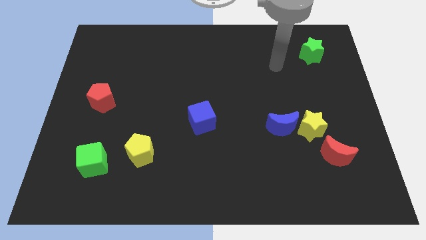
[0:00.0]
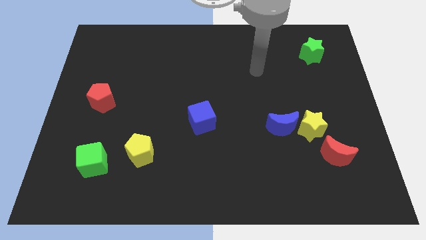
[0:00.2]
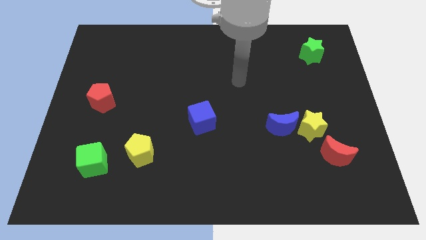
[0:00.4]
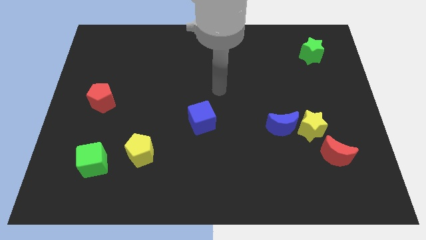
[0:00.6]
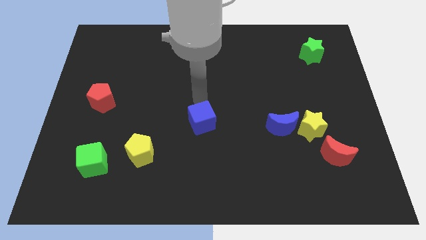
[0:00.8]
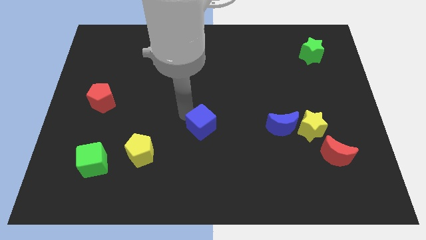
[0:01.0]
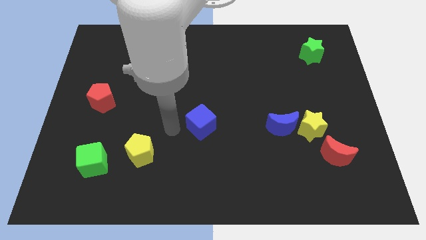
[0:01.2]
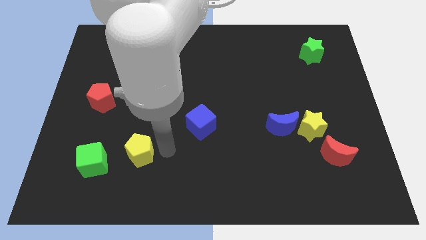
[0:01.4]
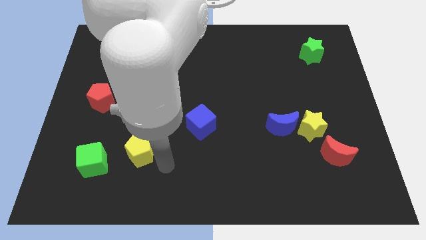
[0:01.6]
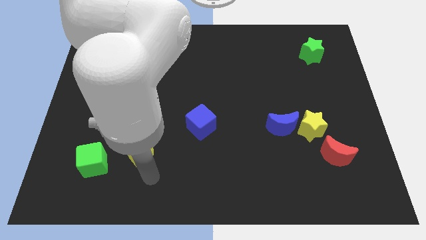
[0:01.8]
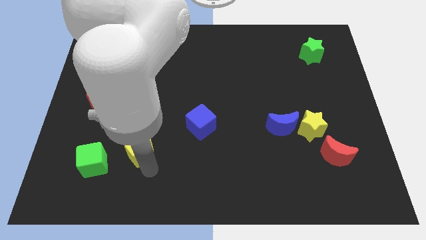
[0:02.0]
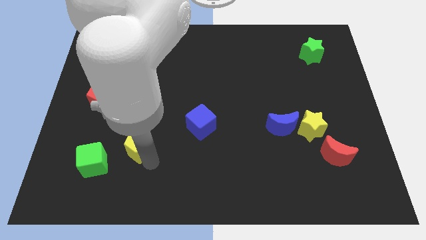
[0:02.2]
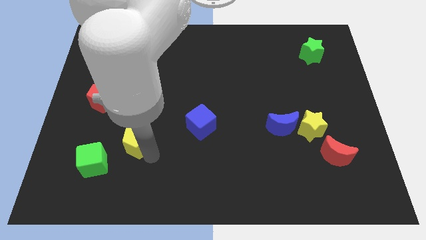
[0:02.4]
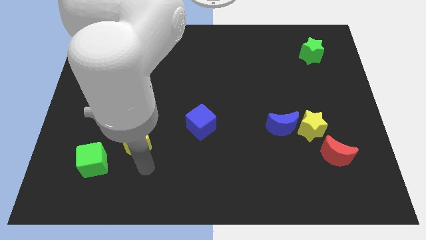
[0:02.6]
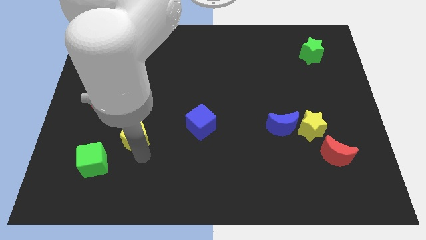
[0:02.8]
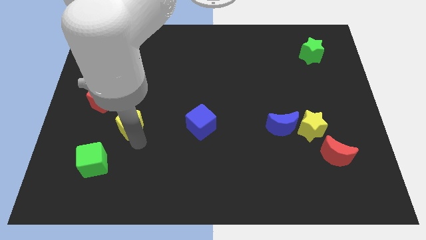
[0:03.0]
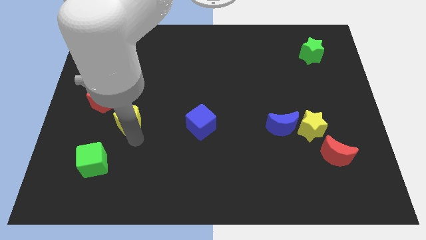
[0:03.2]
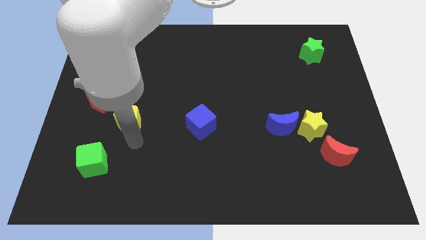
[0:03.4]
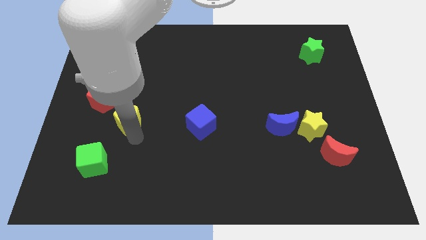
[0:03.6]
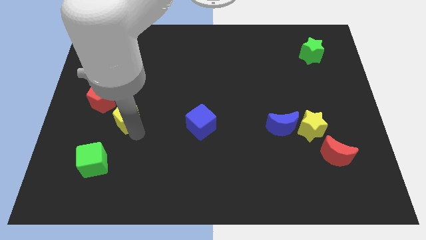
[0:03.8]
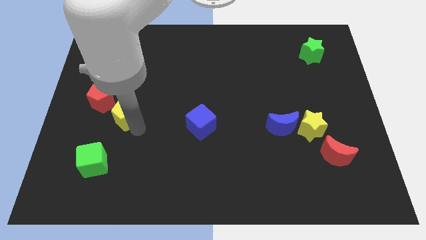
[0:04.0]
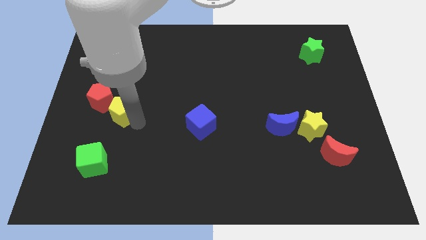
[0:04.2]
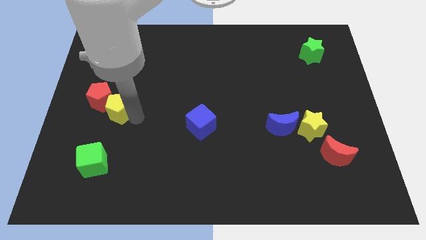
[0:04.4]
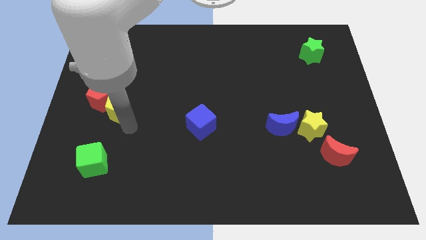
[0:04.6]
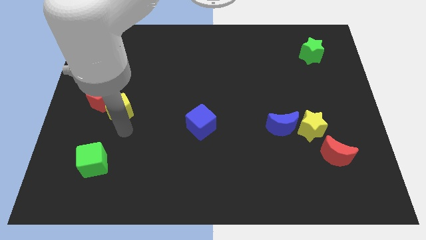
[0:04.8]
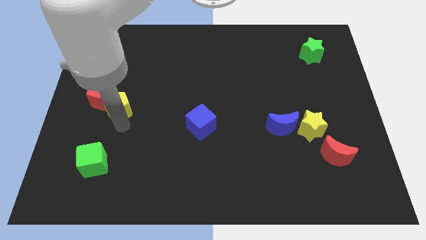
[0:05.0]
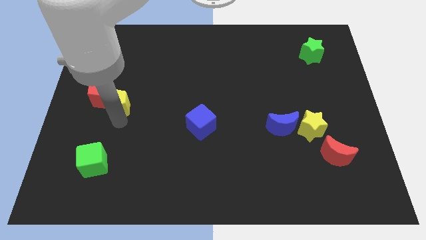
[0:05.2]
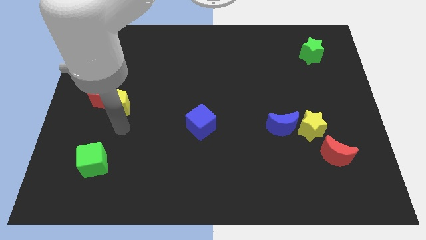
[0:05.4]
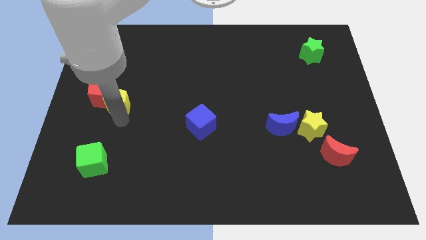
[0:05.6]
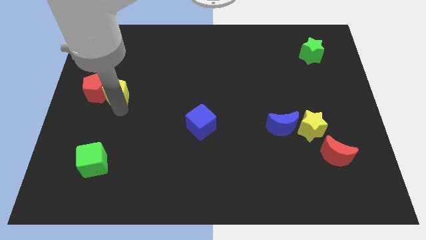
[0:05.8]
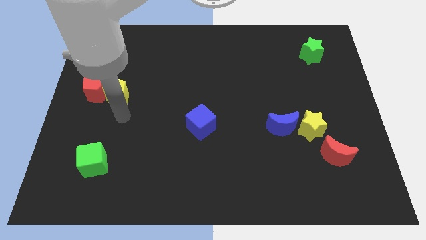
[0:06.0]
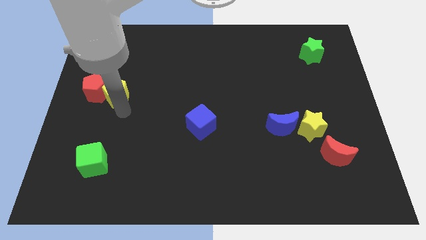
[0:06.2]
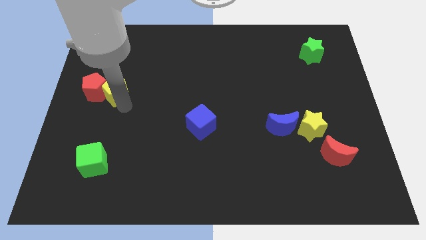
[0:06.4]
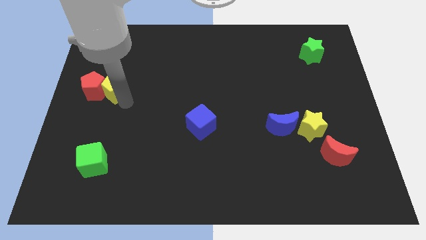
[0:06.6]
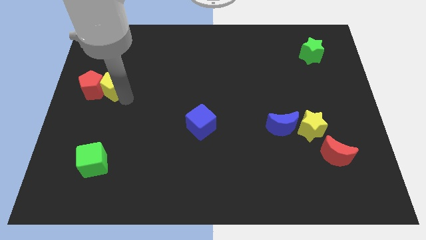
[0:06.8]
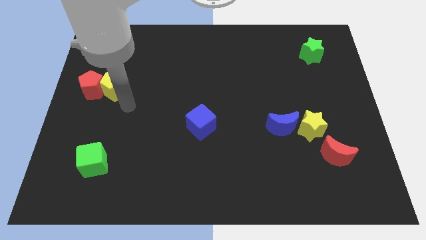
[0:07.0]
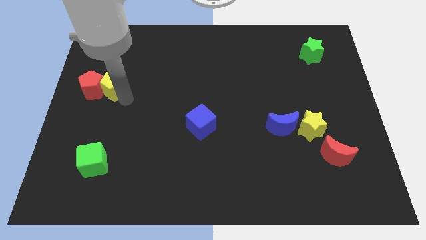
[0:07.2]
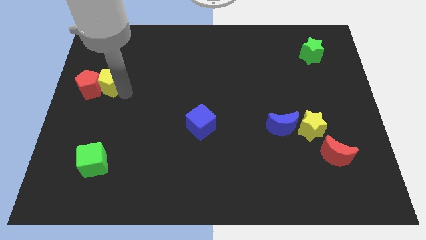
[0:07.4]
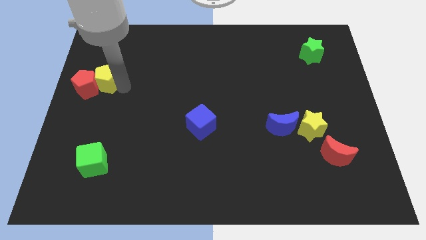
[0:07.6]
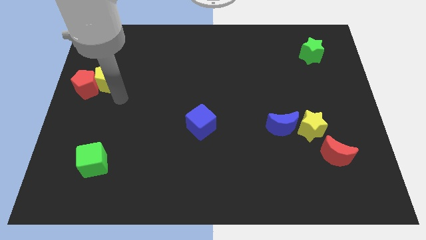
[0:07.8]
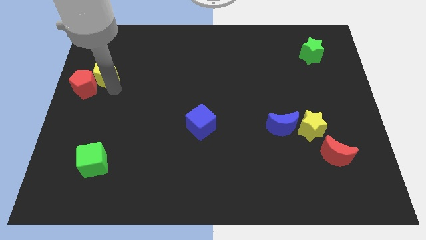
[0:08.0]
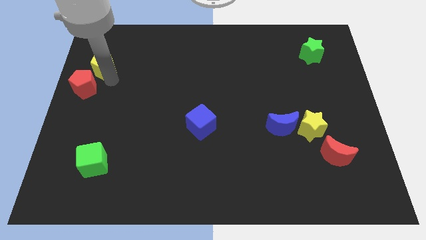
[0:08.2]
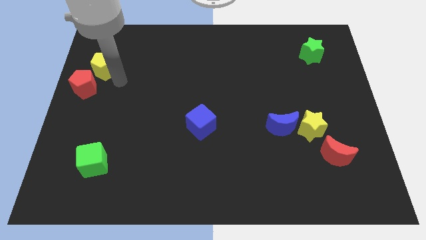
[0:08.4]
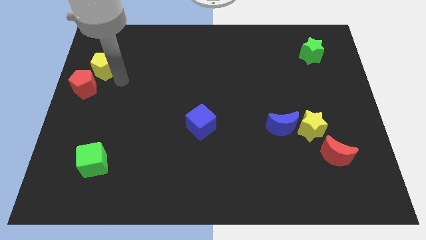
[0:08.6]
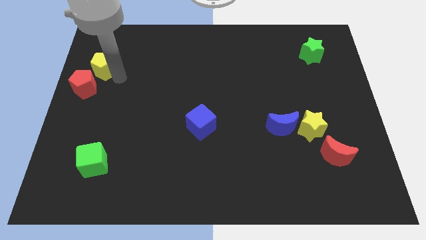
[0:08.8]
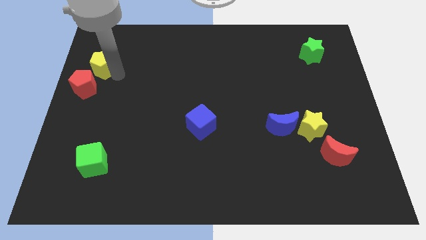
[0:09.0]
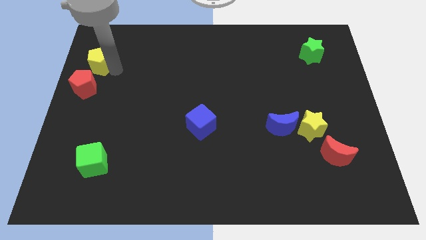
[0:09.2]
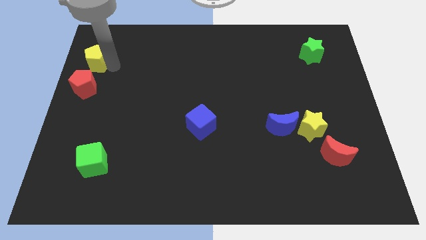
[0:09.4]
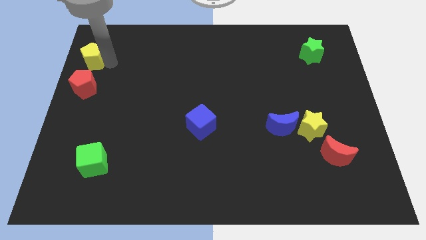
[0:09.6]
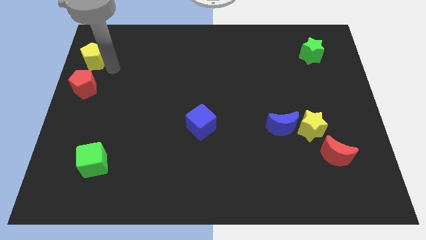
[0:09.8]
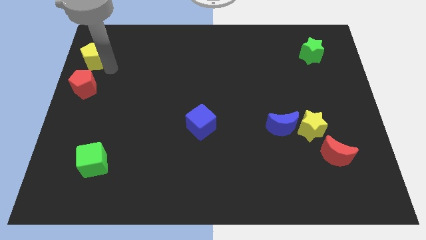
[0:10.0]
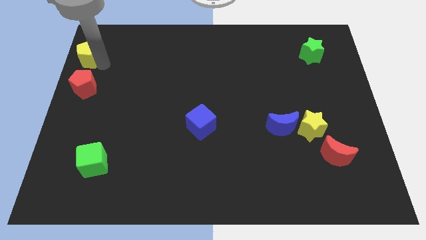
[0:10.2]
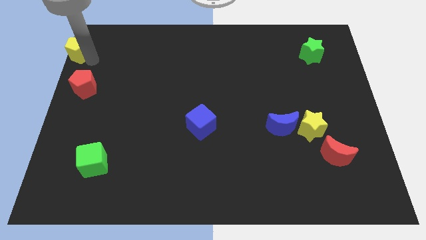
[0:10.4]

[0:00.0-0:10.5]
put the yellow pentagon to the upper left corner

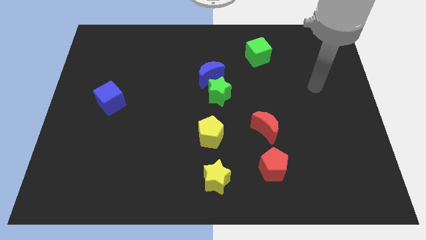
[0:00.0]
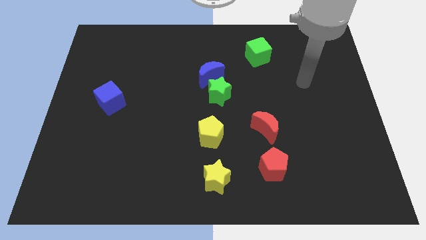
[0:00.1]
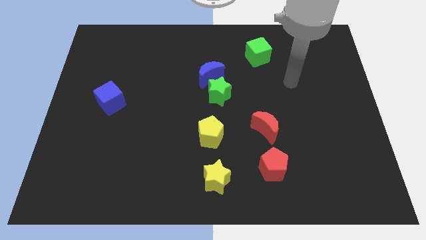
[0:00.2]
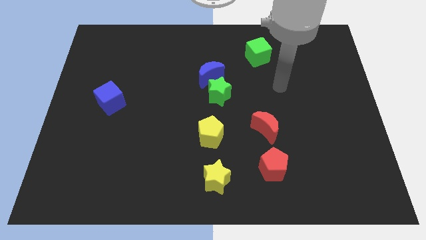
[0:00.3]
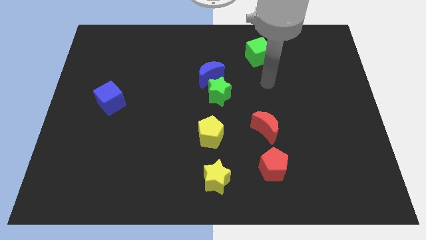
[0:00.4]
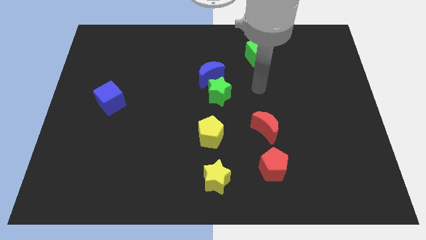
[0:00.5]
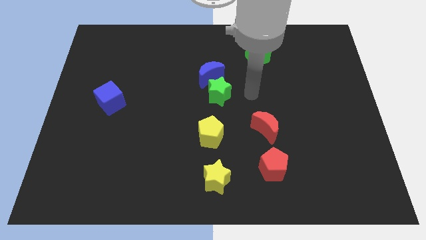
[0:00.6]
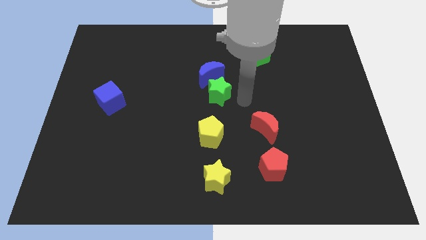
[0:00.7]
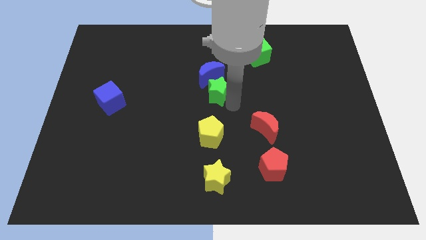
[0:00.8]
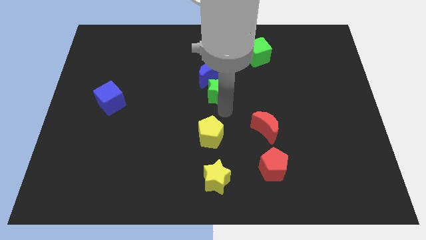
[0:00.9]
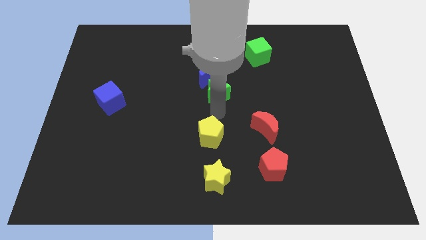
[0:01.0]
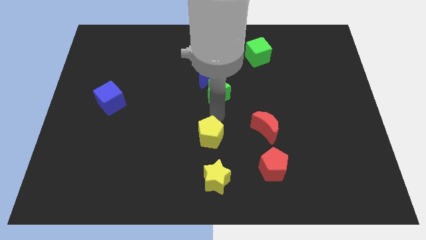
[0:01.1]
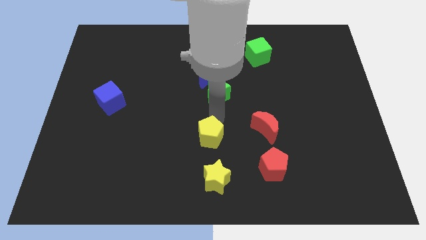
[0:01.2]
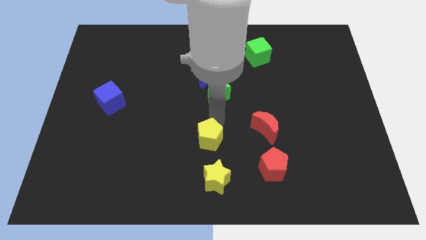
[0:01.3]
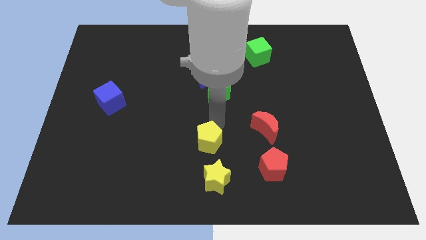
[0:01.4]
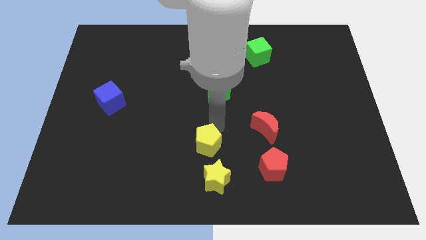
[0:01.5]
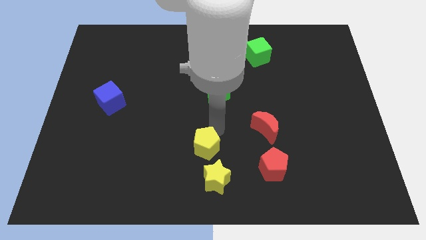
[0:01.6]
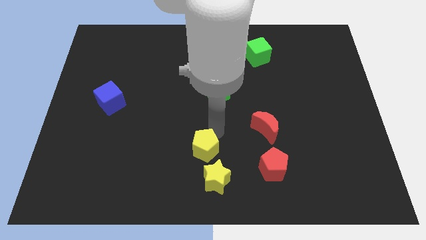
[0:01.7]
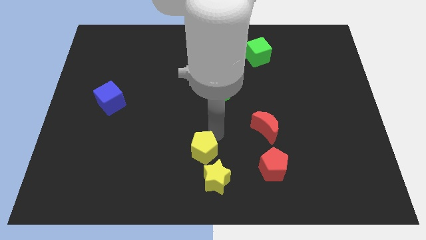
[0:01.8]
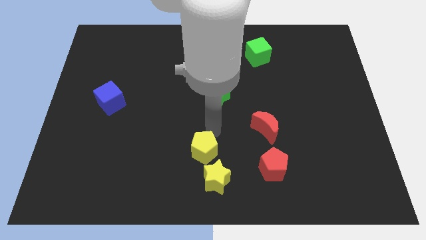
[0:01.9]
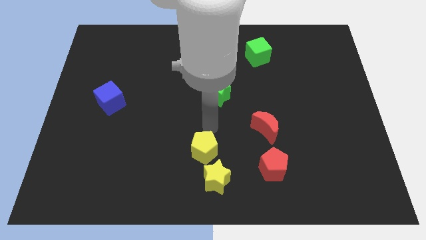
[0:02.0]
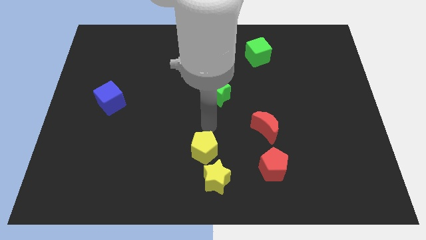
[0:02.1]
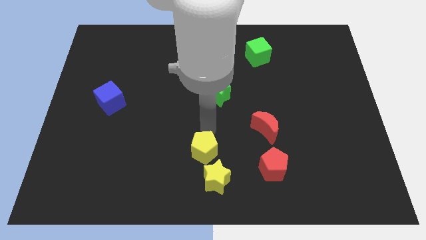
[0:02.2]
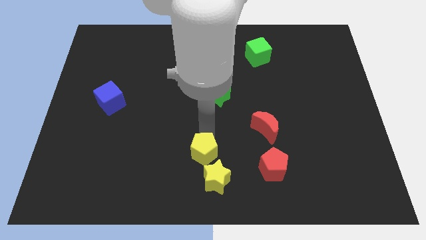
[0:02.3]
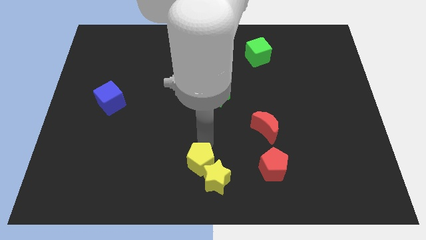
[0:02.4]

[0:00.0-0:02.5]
move the yellow pentagon to the bottom

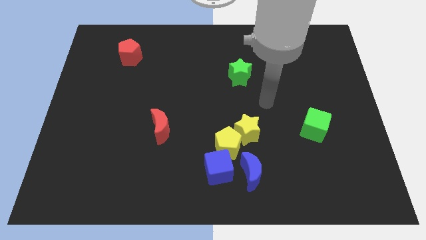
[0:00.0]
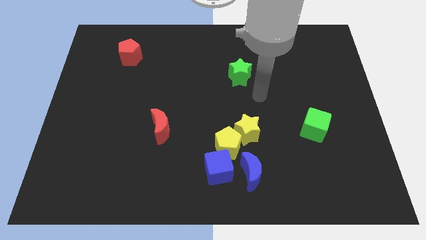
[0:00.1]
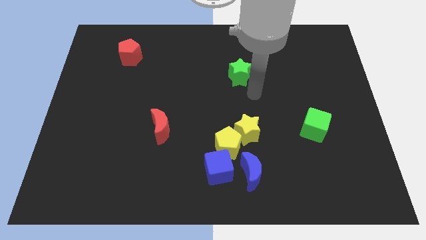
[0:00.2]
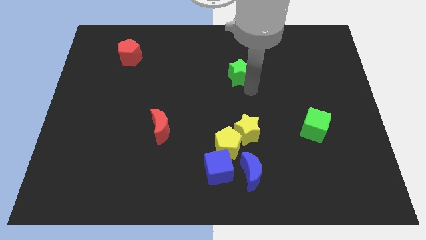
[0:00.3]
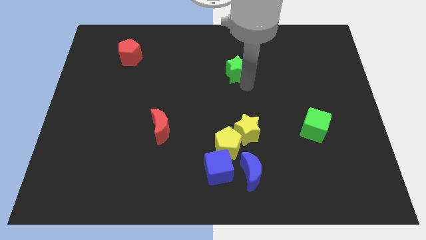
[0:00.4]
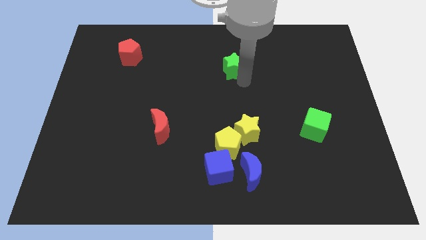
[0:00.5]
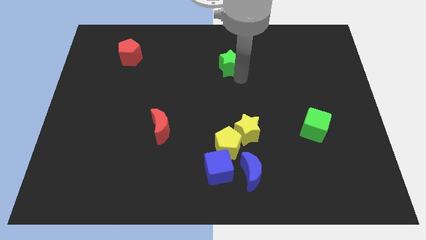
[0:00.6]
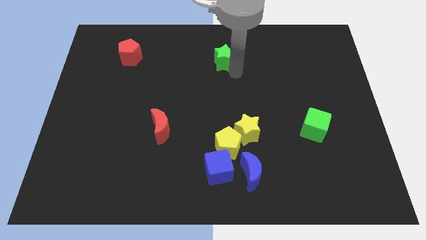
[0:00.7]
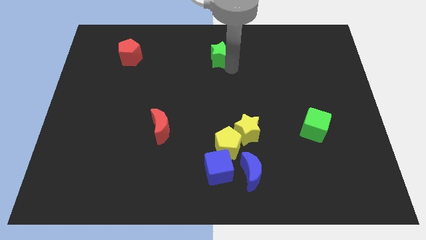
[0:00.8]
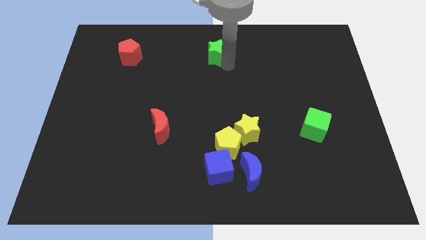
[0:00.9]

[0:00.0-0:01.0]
put the green star to the top
